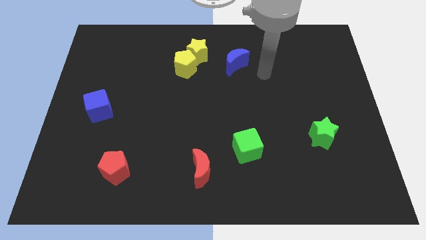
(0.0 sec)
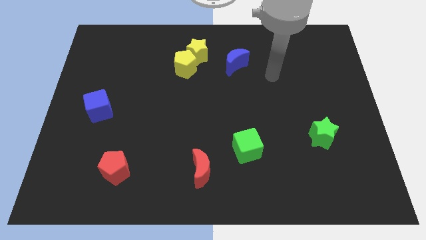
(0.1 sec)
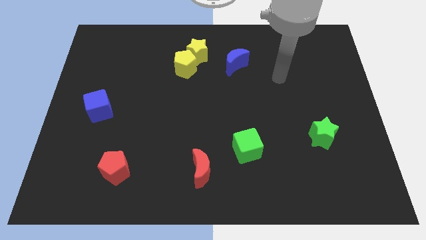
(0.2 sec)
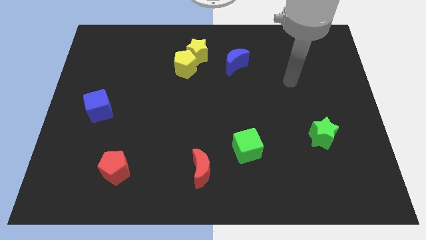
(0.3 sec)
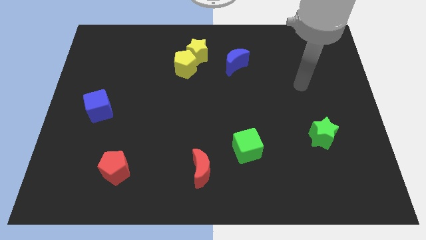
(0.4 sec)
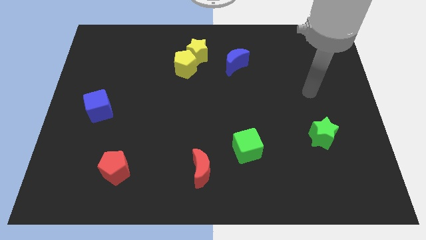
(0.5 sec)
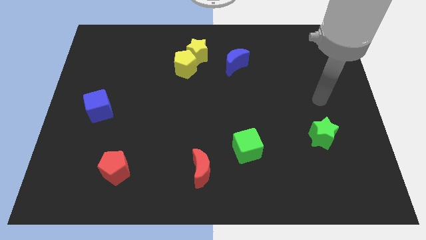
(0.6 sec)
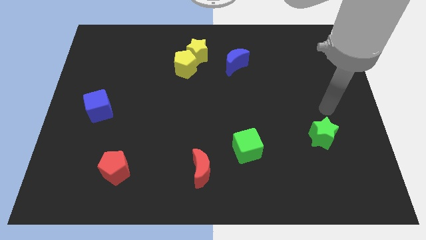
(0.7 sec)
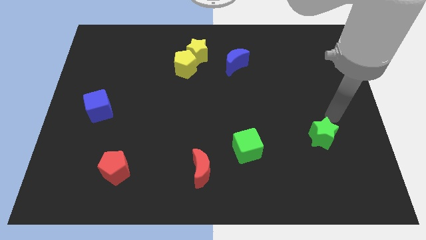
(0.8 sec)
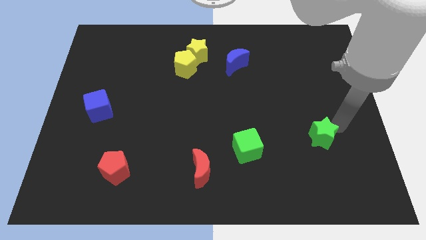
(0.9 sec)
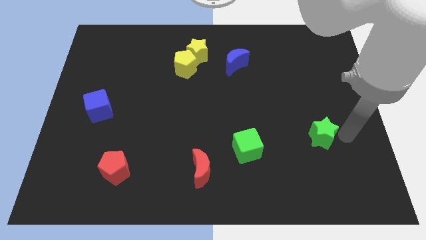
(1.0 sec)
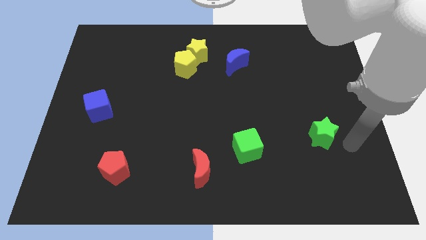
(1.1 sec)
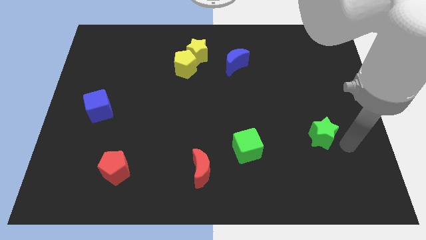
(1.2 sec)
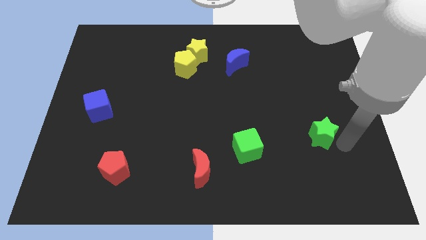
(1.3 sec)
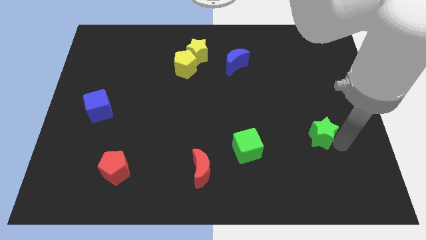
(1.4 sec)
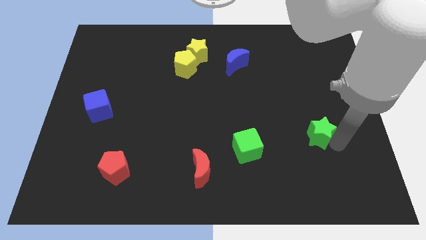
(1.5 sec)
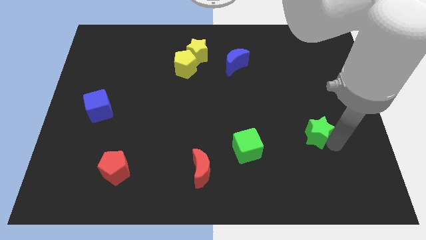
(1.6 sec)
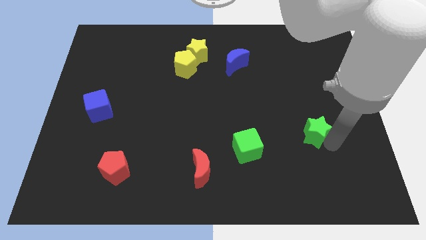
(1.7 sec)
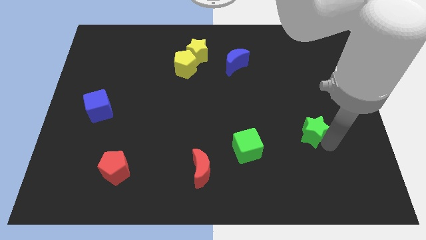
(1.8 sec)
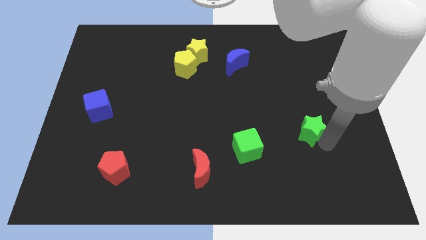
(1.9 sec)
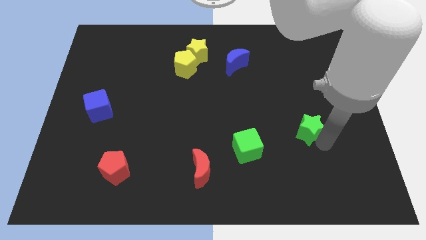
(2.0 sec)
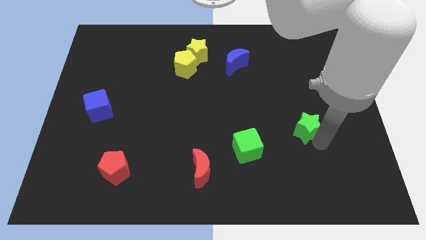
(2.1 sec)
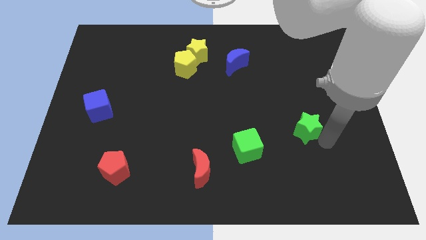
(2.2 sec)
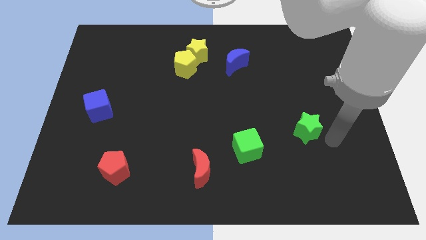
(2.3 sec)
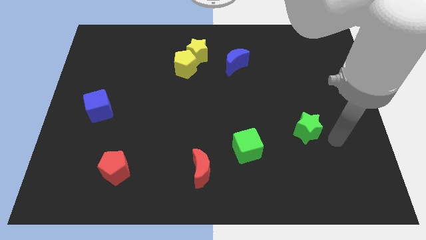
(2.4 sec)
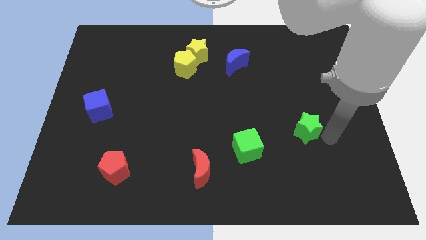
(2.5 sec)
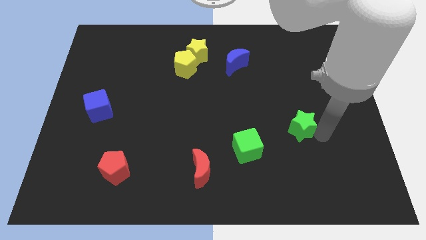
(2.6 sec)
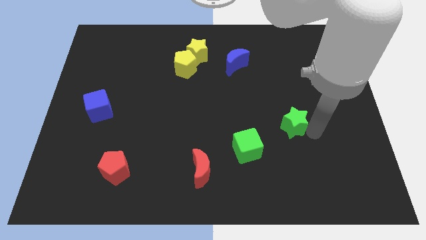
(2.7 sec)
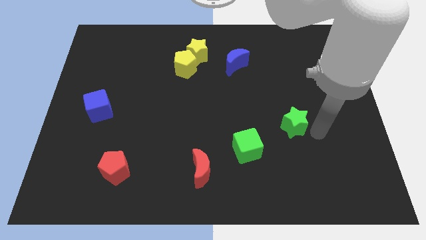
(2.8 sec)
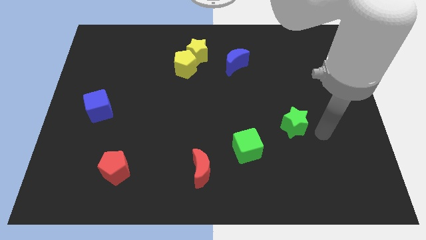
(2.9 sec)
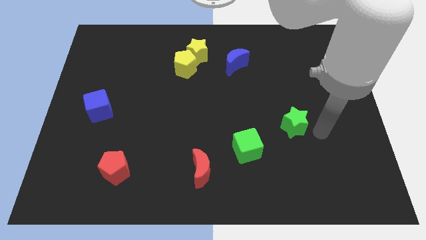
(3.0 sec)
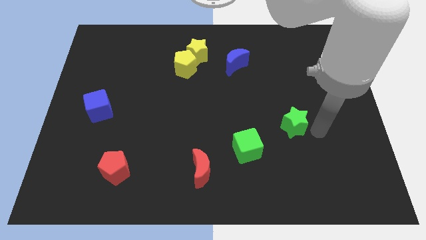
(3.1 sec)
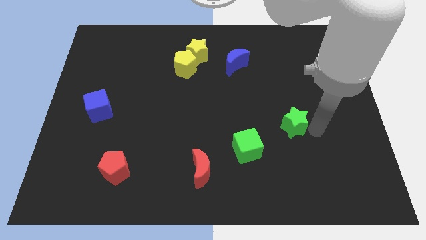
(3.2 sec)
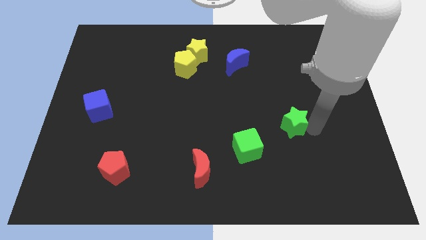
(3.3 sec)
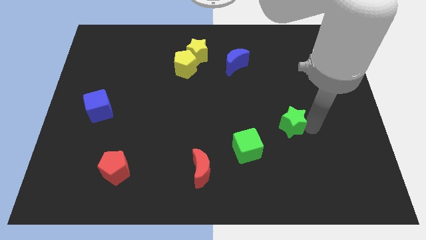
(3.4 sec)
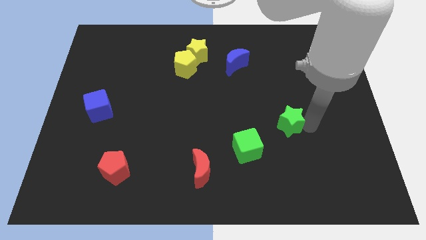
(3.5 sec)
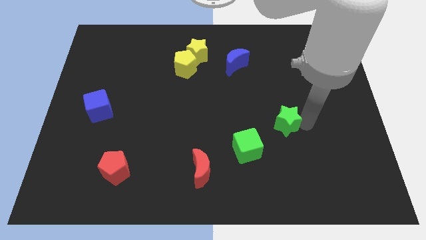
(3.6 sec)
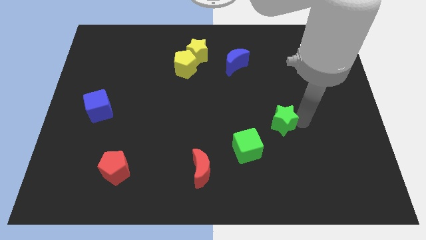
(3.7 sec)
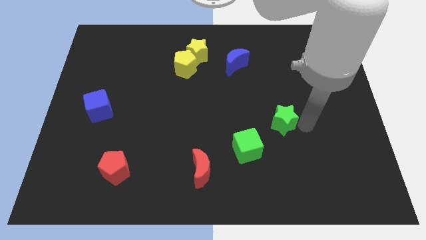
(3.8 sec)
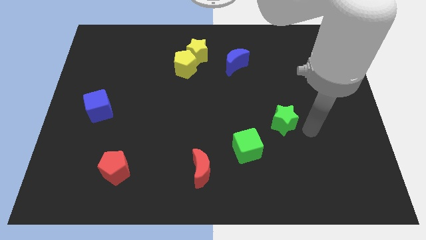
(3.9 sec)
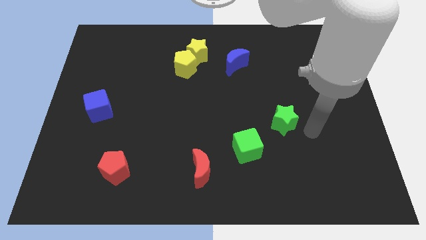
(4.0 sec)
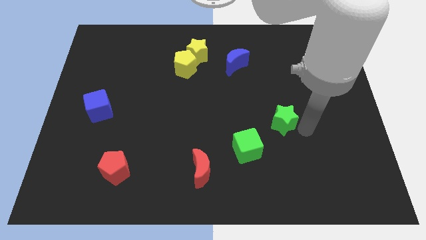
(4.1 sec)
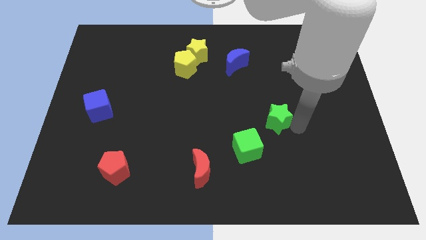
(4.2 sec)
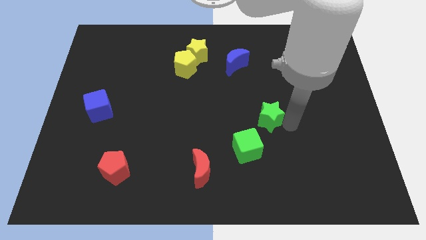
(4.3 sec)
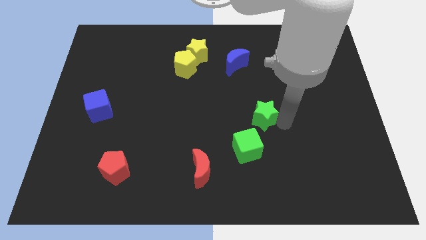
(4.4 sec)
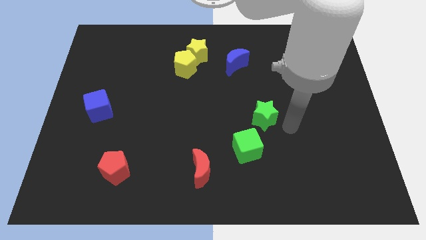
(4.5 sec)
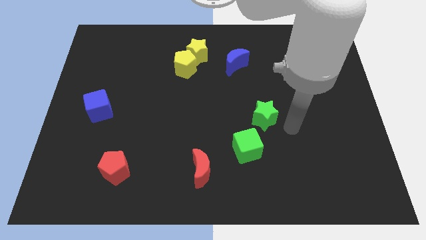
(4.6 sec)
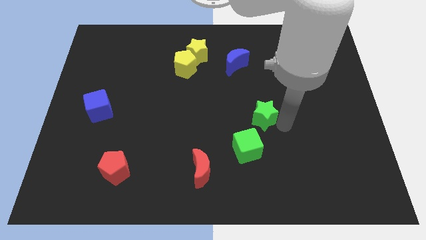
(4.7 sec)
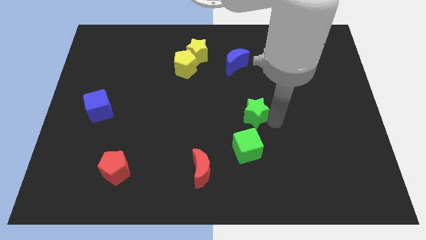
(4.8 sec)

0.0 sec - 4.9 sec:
push the green star to the middle

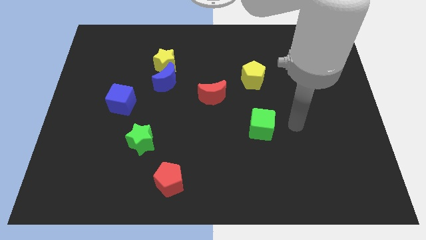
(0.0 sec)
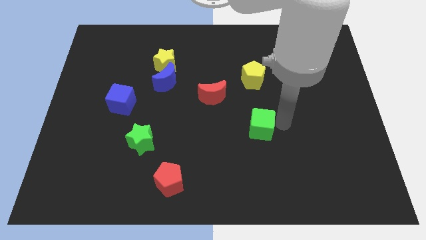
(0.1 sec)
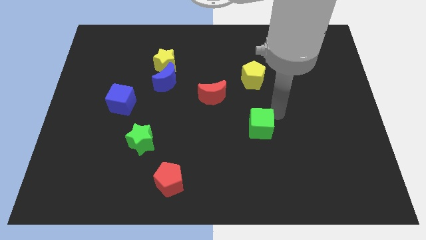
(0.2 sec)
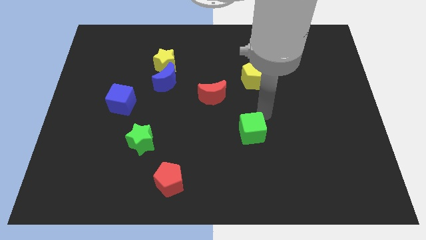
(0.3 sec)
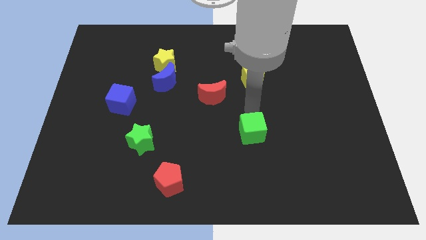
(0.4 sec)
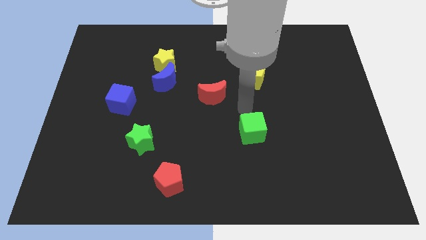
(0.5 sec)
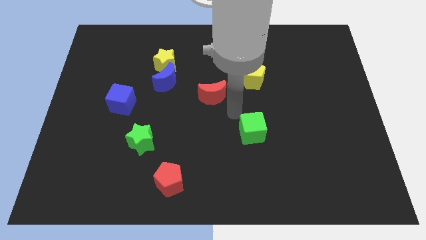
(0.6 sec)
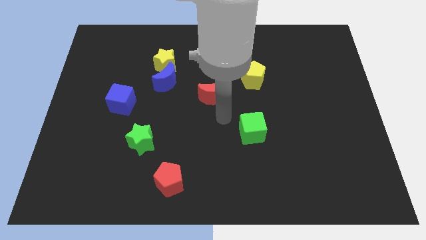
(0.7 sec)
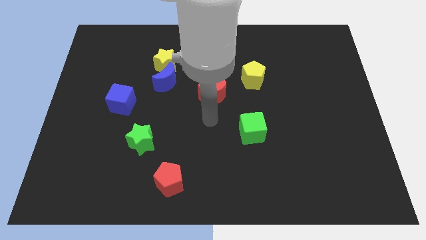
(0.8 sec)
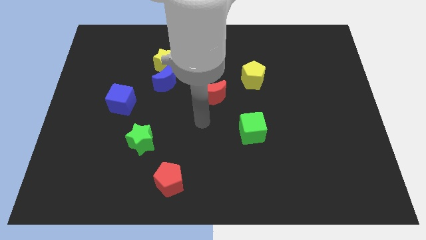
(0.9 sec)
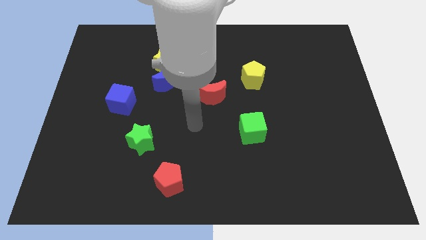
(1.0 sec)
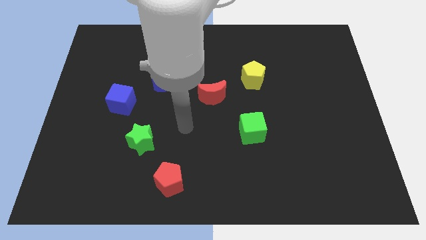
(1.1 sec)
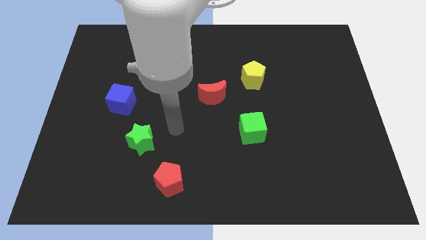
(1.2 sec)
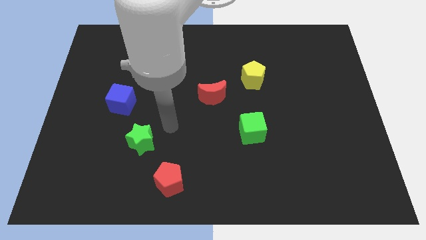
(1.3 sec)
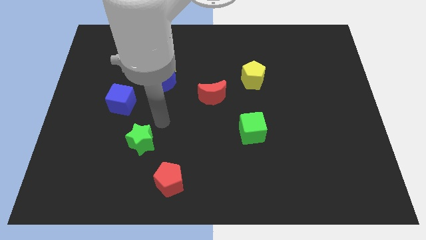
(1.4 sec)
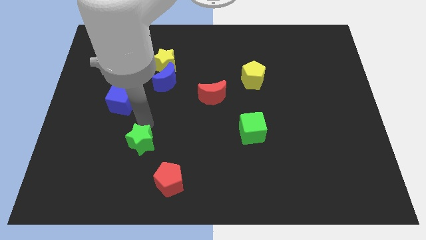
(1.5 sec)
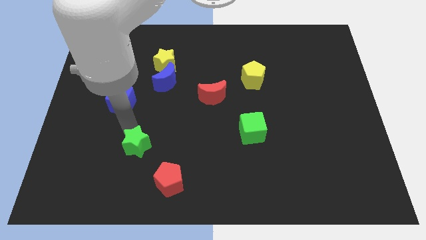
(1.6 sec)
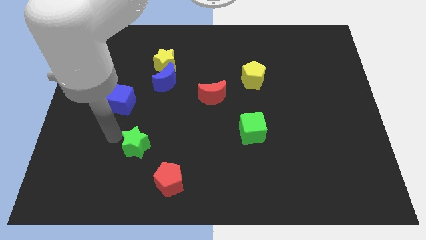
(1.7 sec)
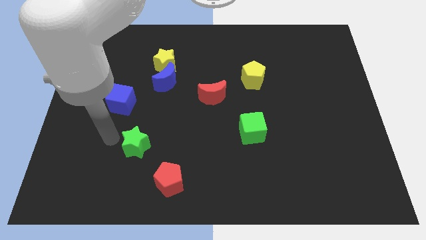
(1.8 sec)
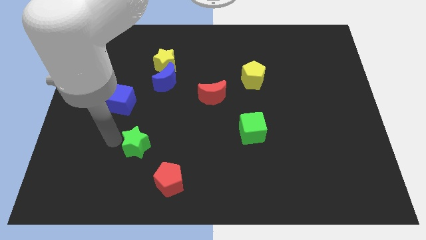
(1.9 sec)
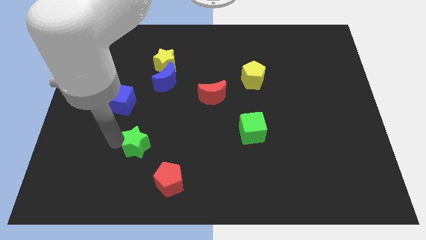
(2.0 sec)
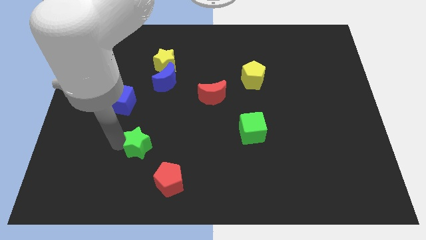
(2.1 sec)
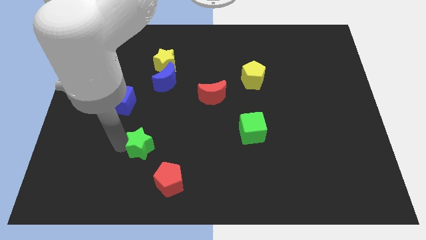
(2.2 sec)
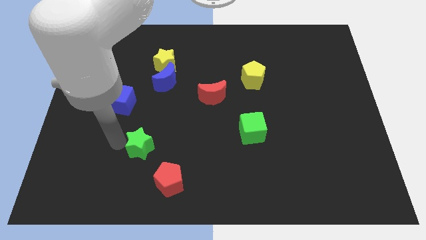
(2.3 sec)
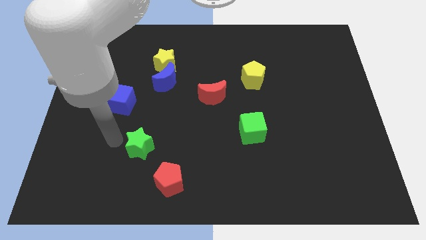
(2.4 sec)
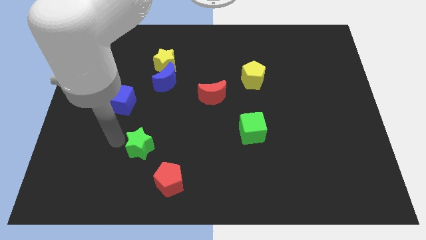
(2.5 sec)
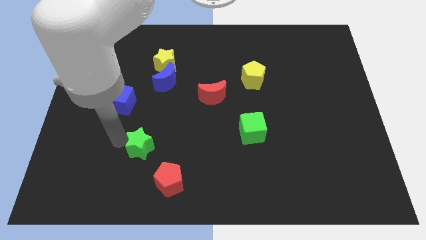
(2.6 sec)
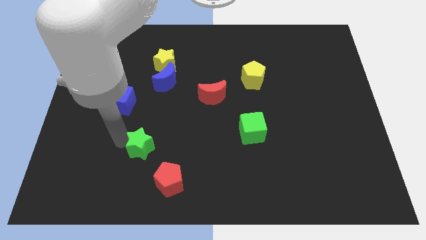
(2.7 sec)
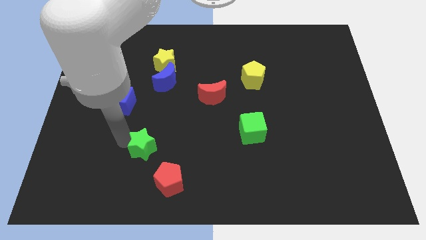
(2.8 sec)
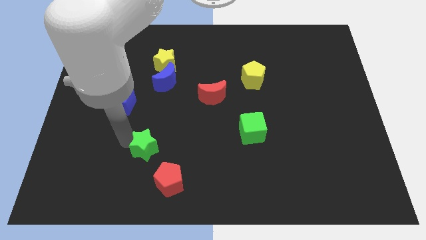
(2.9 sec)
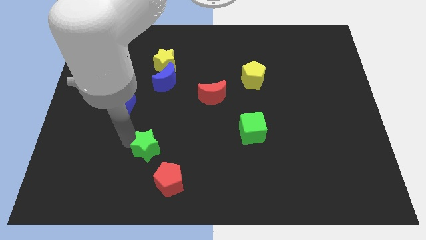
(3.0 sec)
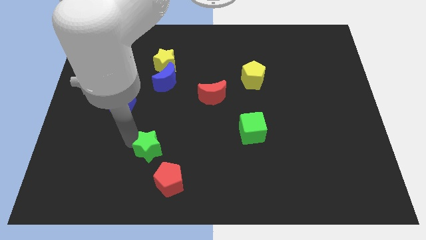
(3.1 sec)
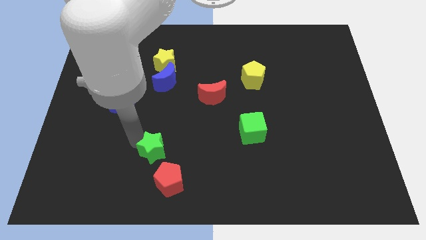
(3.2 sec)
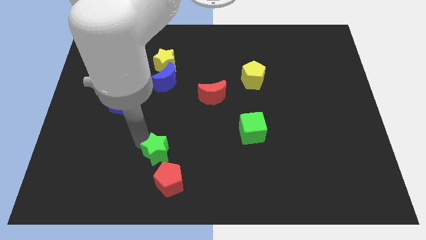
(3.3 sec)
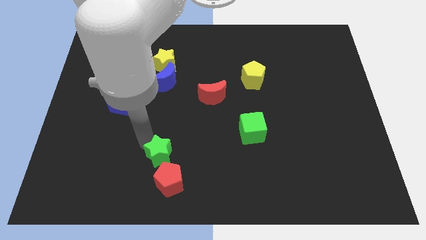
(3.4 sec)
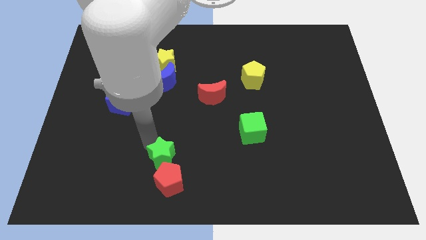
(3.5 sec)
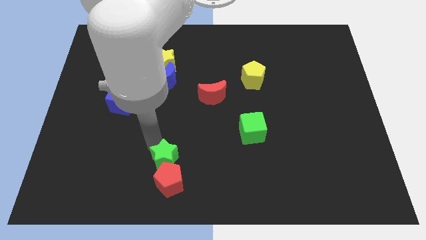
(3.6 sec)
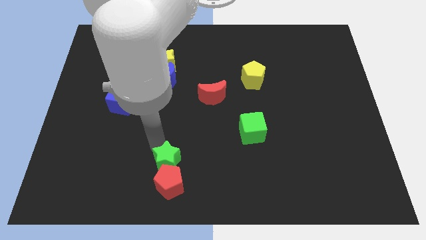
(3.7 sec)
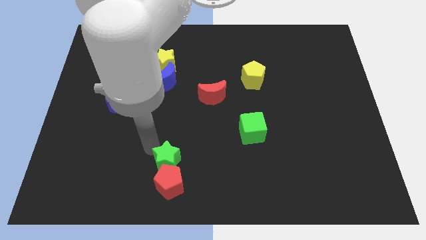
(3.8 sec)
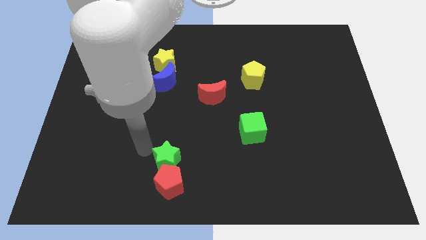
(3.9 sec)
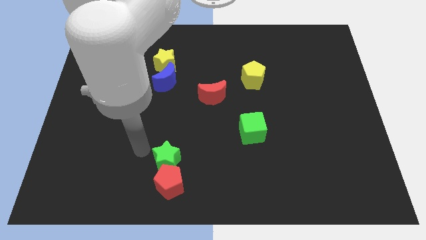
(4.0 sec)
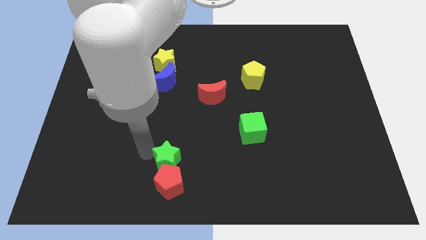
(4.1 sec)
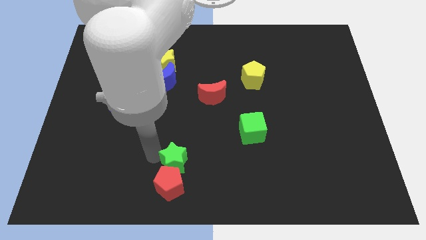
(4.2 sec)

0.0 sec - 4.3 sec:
put the green star to the bottom side
